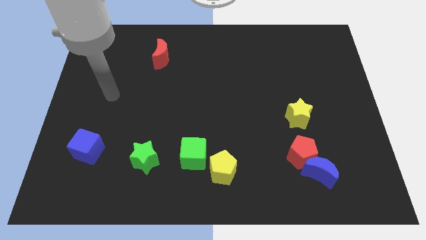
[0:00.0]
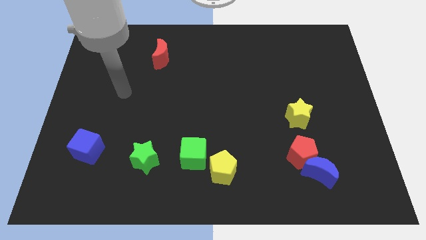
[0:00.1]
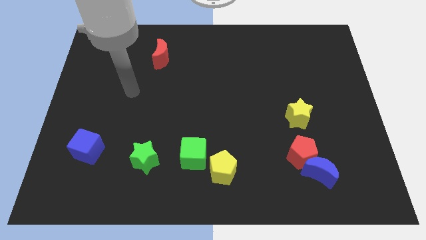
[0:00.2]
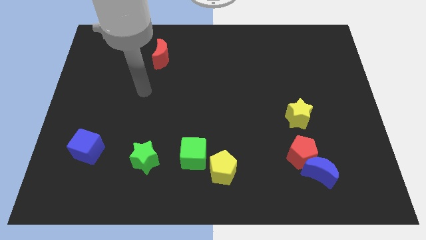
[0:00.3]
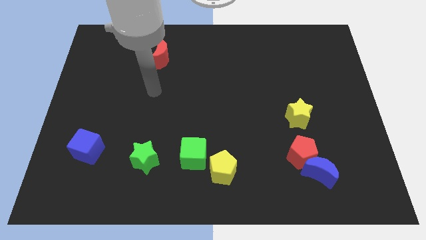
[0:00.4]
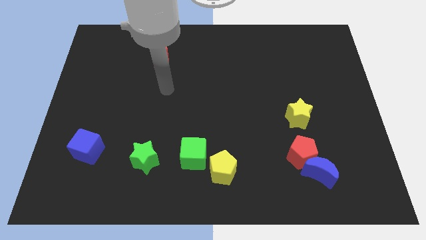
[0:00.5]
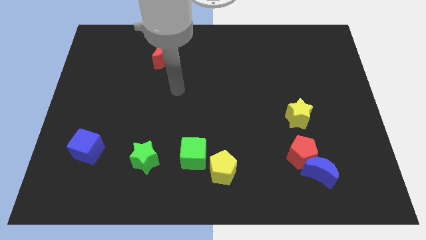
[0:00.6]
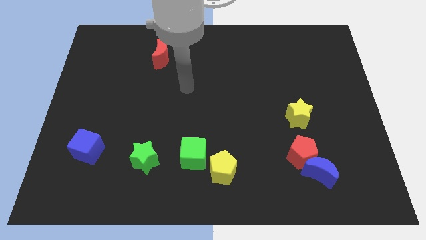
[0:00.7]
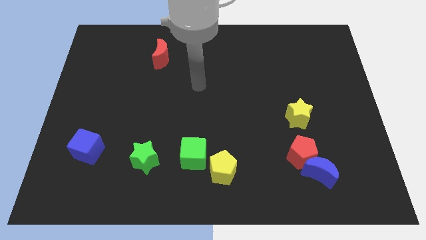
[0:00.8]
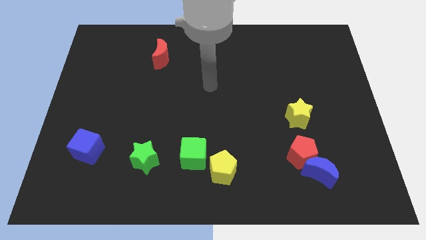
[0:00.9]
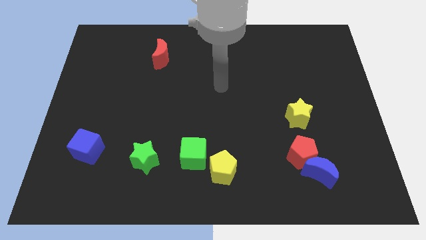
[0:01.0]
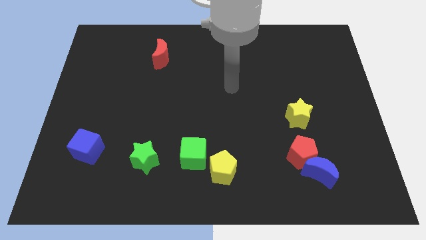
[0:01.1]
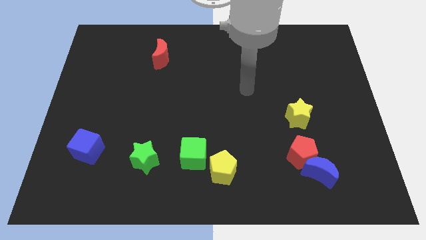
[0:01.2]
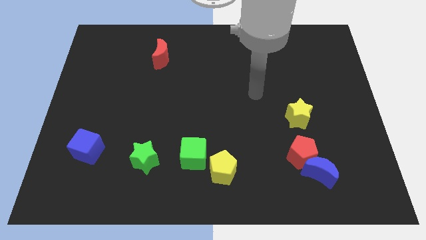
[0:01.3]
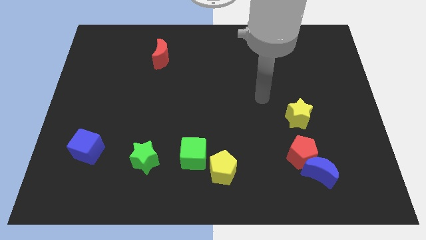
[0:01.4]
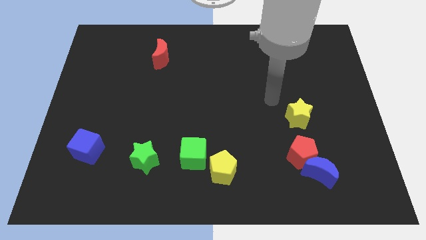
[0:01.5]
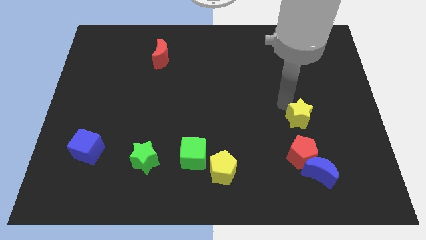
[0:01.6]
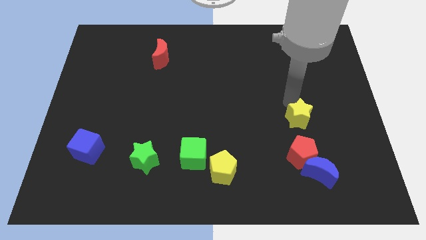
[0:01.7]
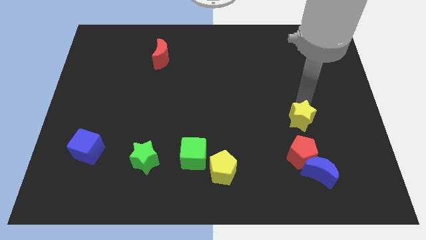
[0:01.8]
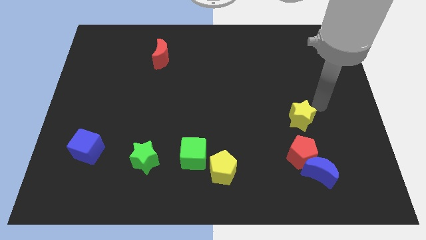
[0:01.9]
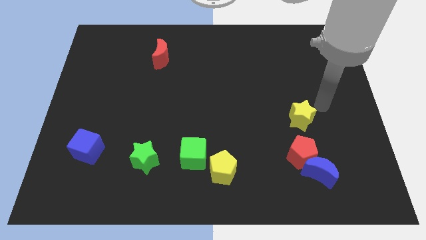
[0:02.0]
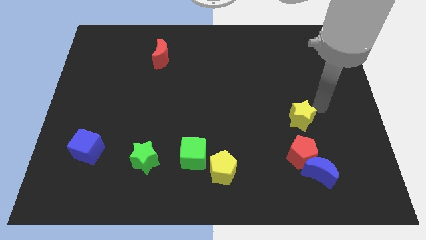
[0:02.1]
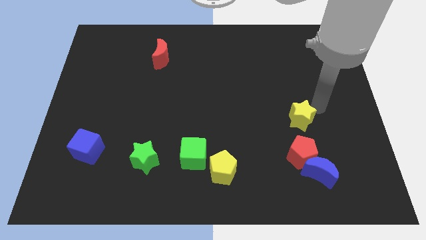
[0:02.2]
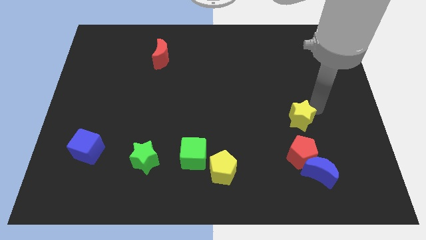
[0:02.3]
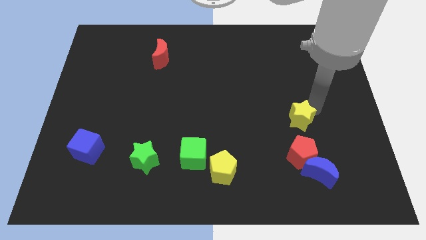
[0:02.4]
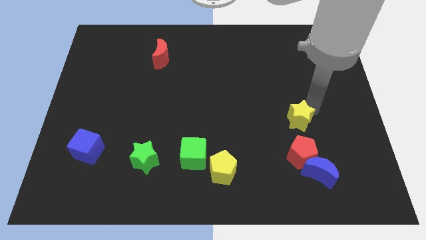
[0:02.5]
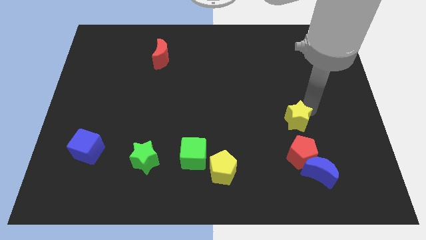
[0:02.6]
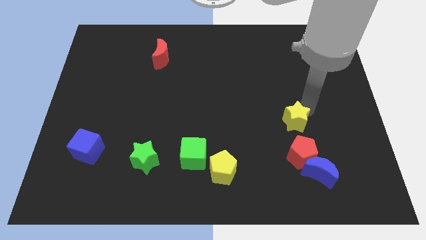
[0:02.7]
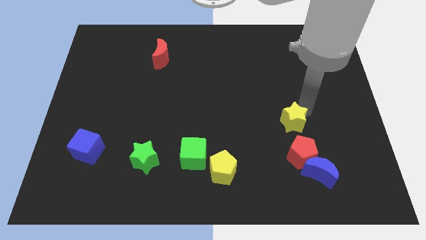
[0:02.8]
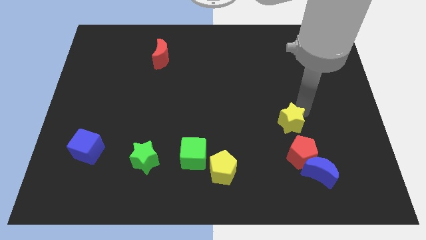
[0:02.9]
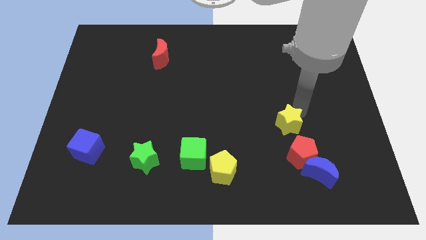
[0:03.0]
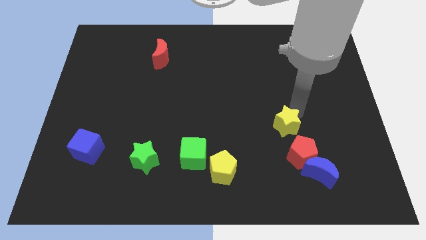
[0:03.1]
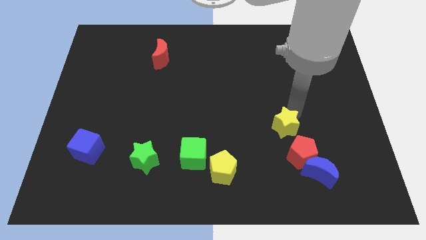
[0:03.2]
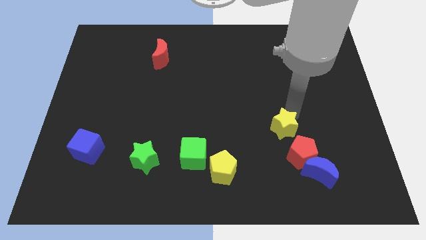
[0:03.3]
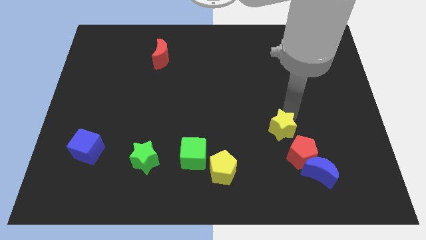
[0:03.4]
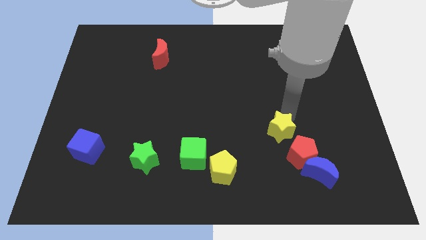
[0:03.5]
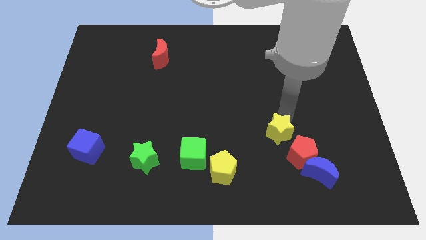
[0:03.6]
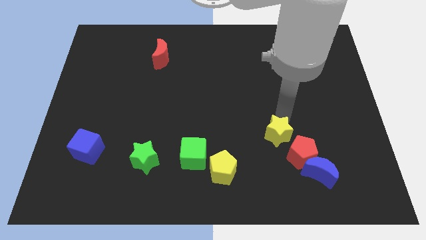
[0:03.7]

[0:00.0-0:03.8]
slightly push the yellow star down and left diagonally

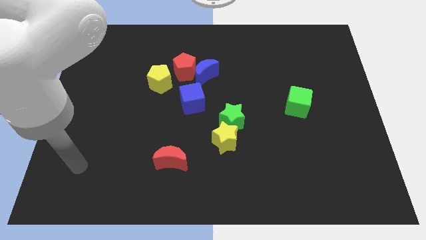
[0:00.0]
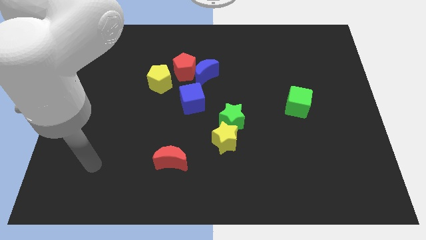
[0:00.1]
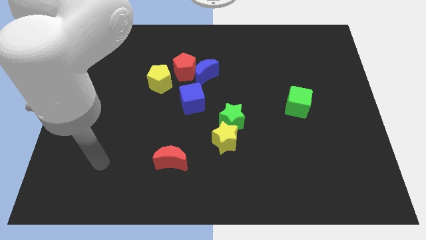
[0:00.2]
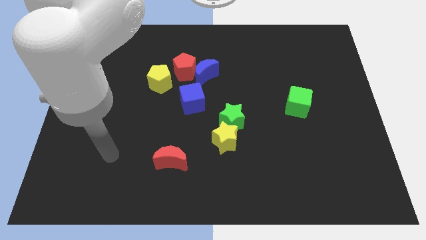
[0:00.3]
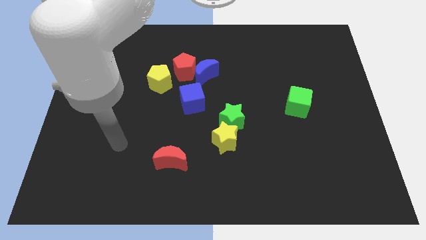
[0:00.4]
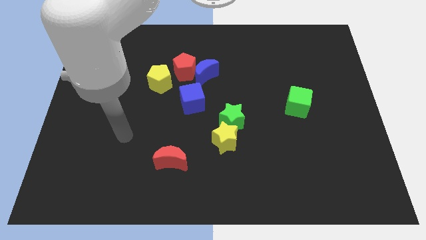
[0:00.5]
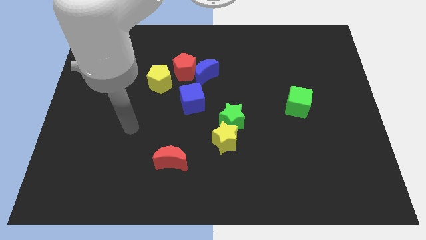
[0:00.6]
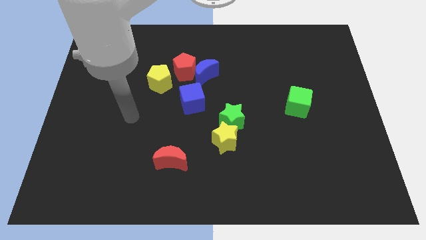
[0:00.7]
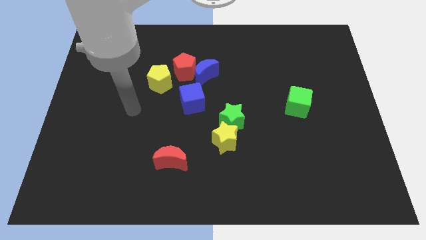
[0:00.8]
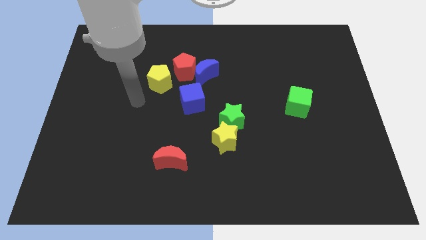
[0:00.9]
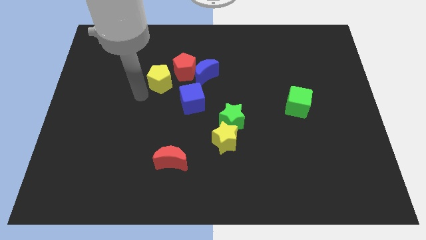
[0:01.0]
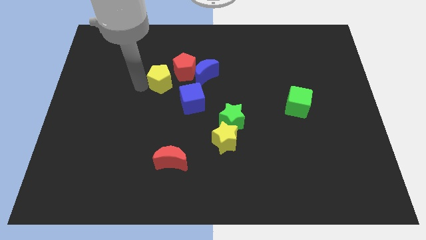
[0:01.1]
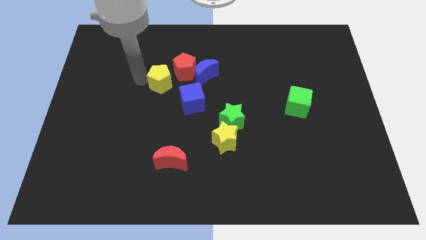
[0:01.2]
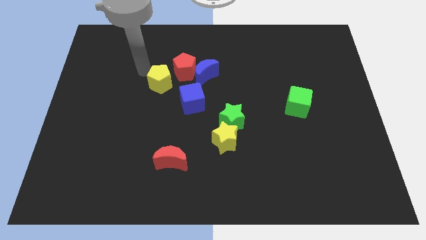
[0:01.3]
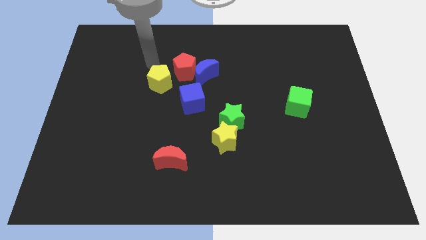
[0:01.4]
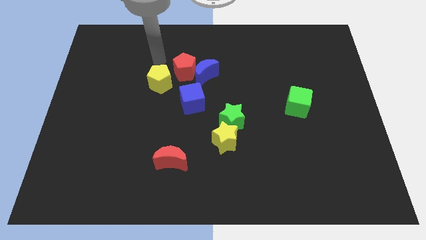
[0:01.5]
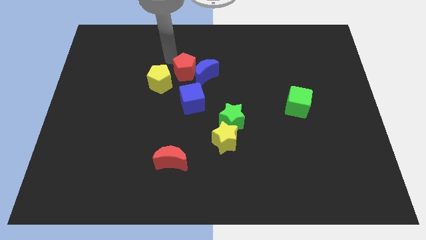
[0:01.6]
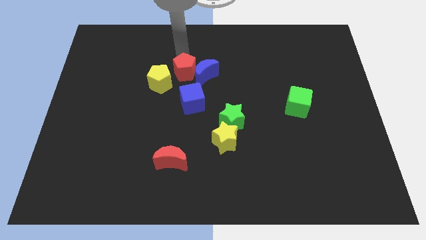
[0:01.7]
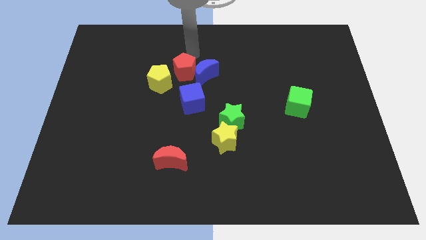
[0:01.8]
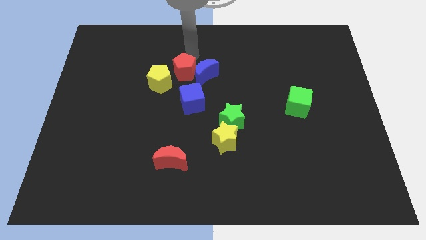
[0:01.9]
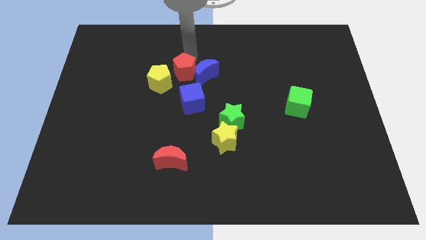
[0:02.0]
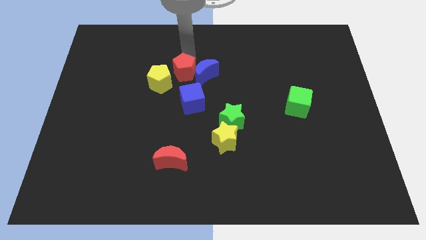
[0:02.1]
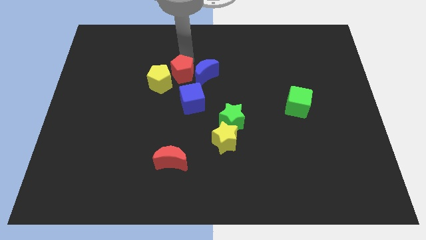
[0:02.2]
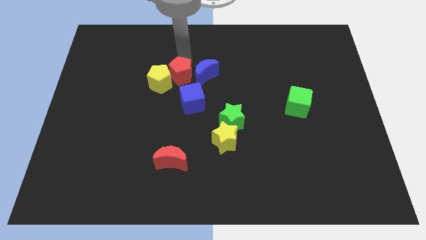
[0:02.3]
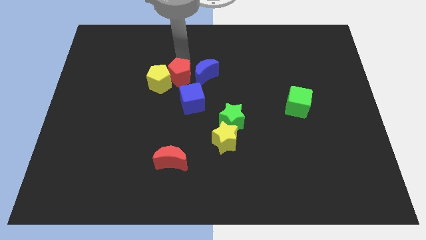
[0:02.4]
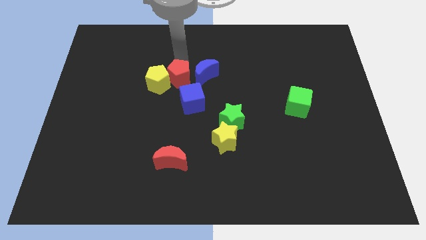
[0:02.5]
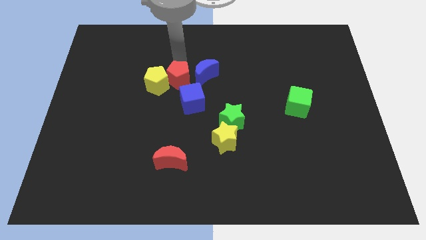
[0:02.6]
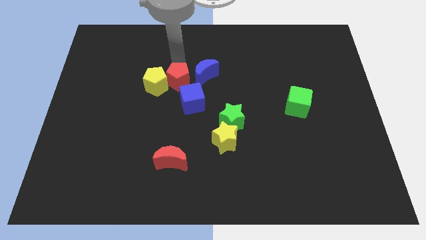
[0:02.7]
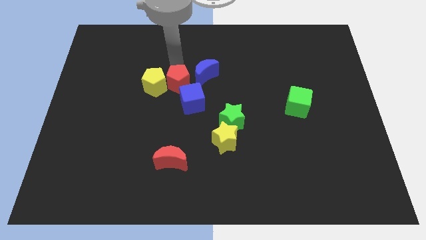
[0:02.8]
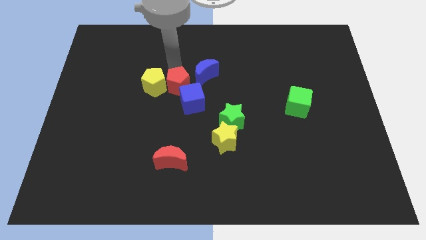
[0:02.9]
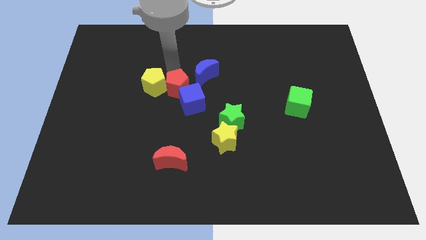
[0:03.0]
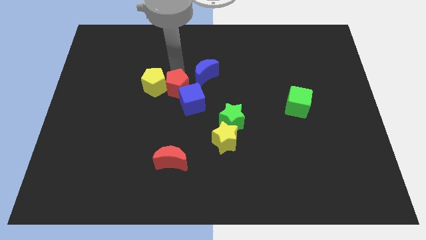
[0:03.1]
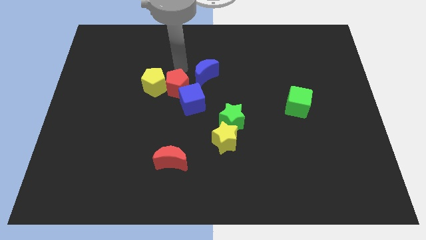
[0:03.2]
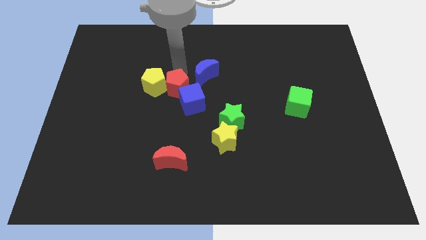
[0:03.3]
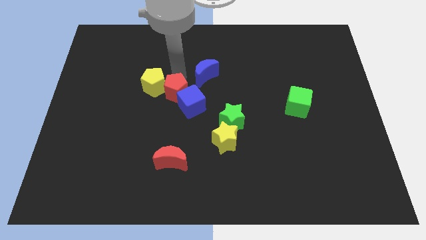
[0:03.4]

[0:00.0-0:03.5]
move the red pentagon downwards slightly

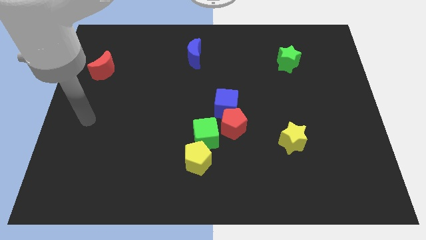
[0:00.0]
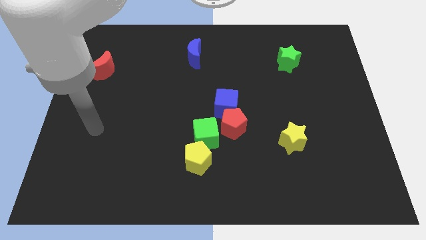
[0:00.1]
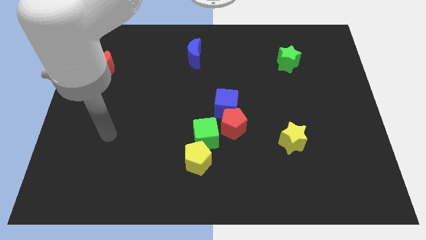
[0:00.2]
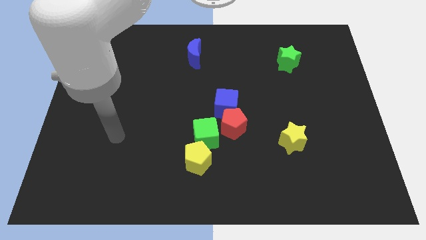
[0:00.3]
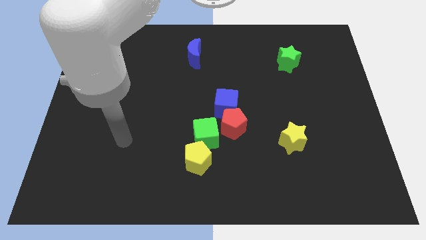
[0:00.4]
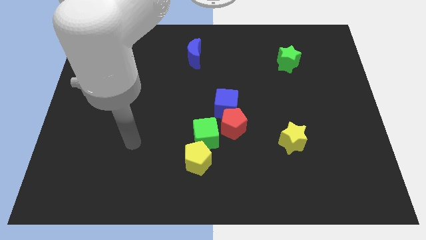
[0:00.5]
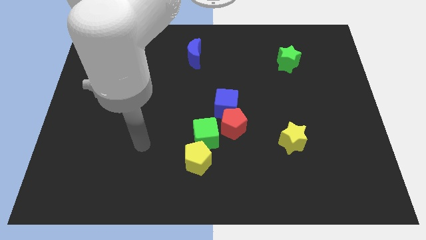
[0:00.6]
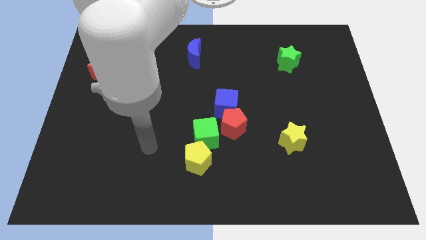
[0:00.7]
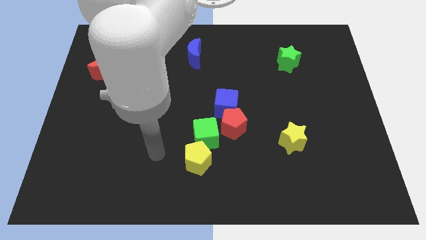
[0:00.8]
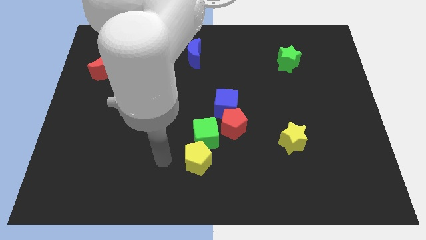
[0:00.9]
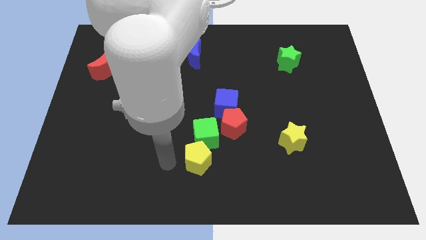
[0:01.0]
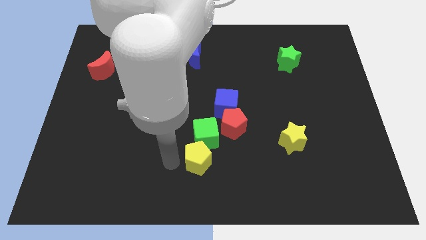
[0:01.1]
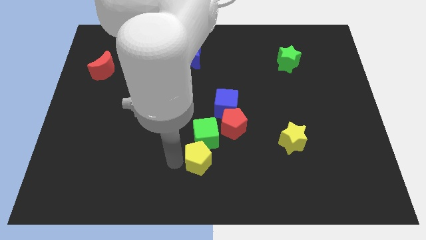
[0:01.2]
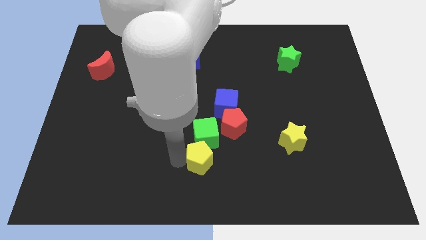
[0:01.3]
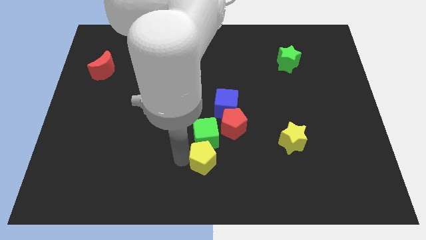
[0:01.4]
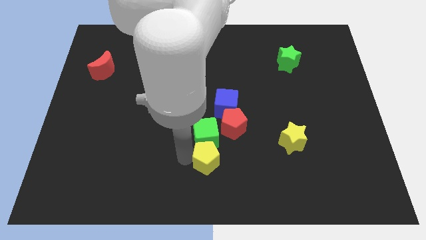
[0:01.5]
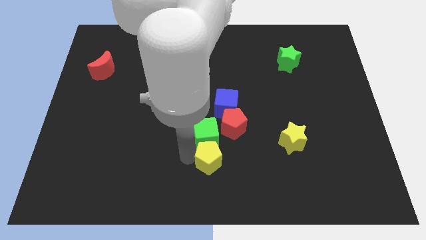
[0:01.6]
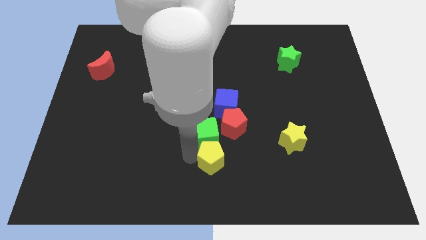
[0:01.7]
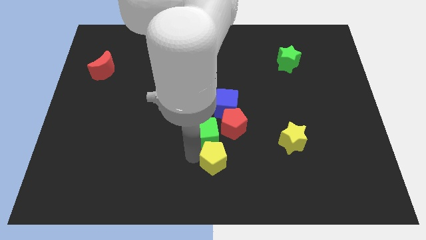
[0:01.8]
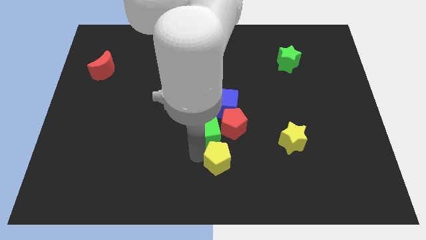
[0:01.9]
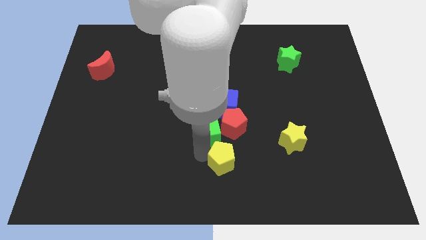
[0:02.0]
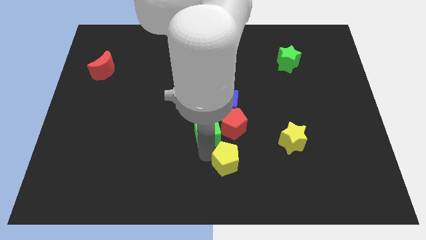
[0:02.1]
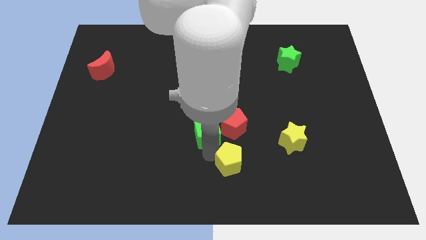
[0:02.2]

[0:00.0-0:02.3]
slightly move the yellow pentagon to the right
